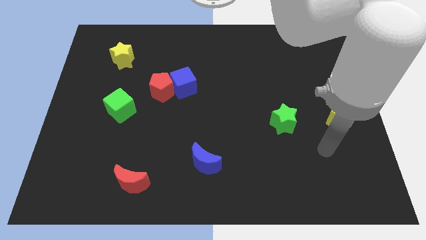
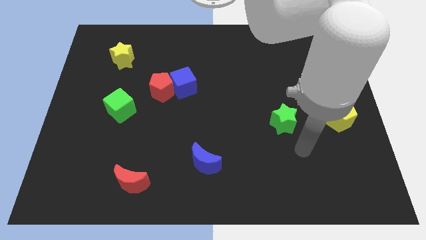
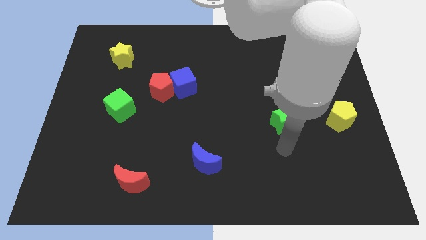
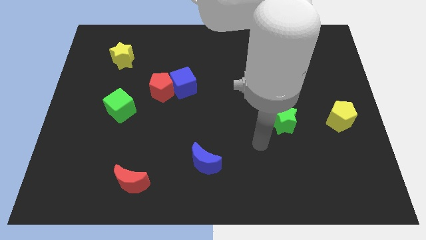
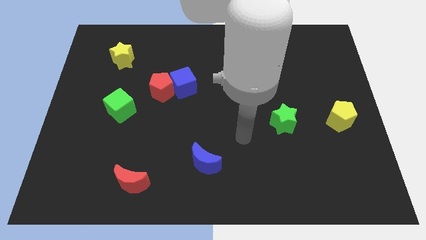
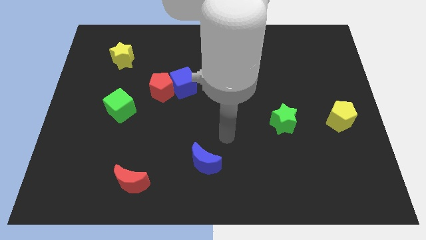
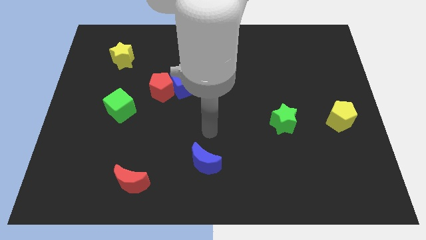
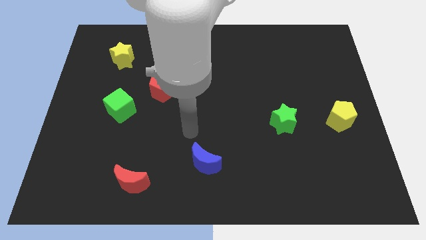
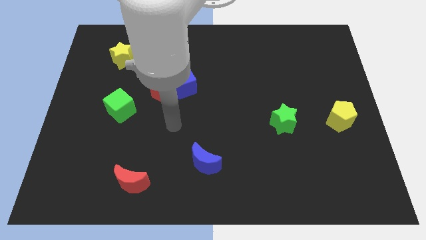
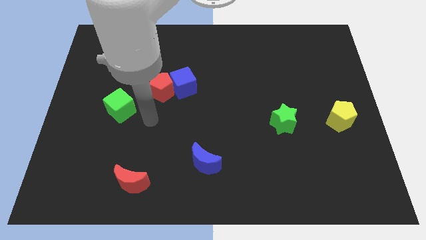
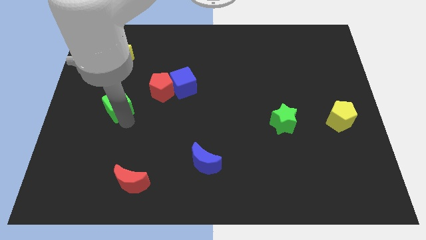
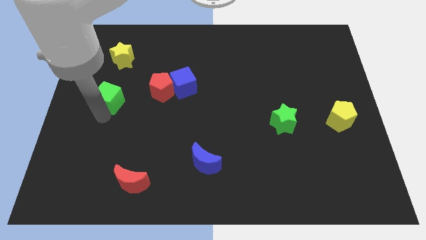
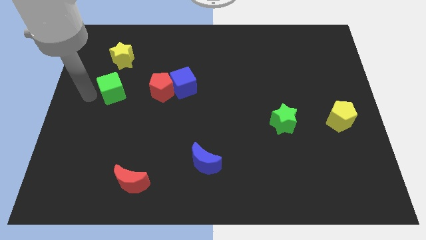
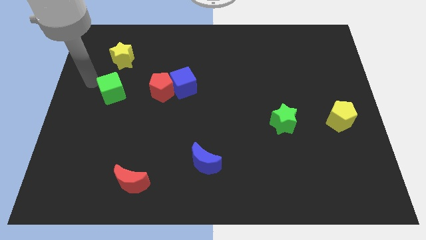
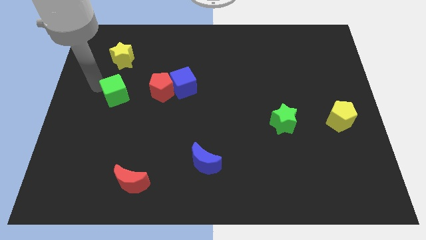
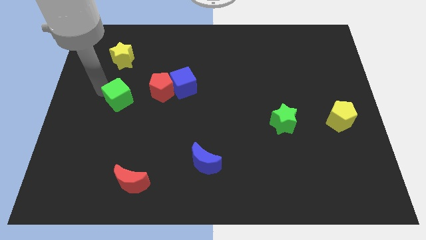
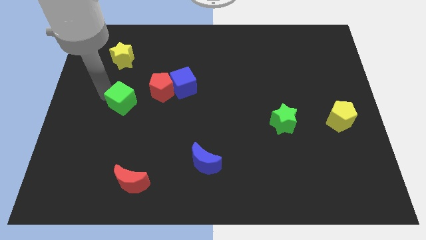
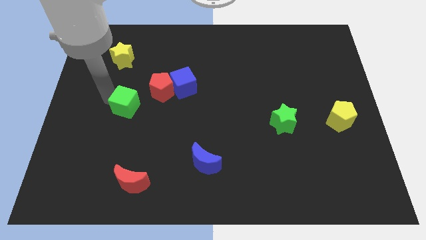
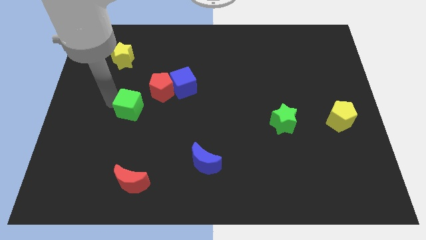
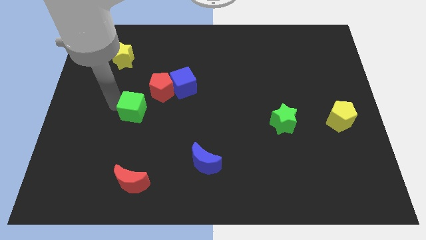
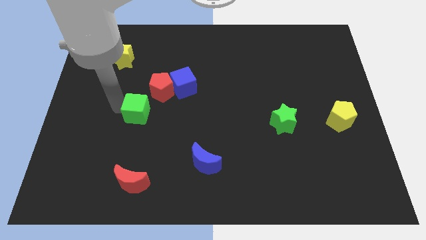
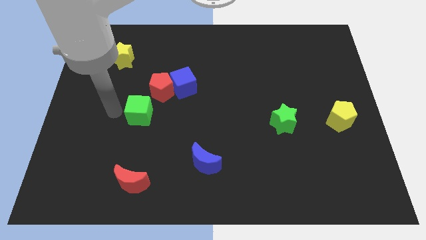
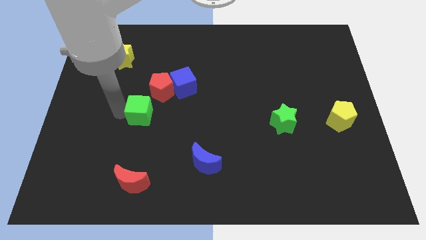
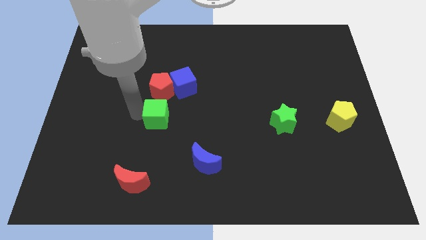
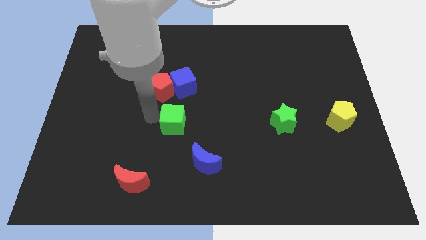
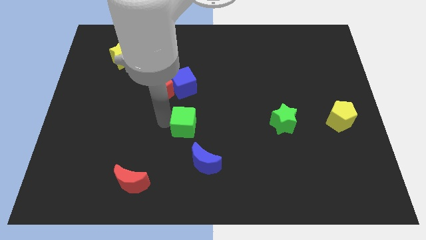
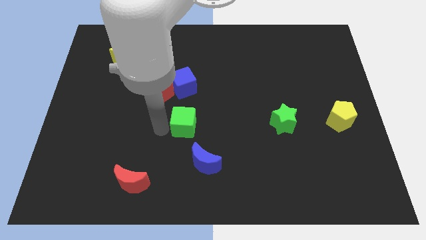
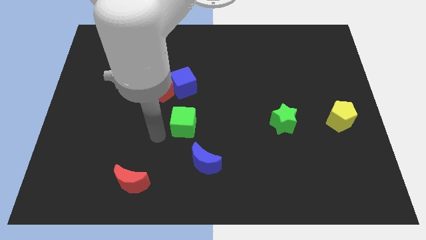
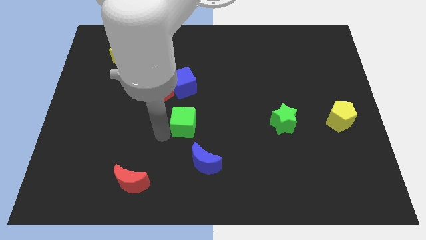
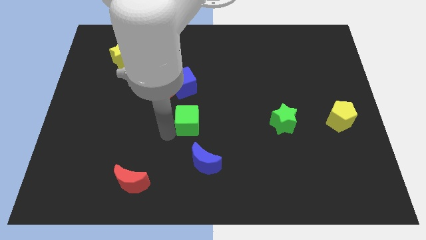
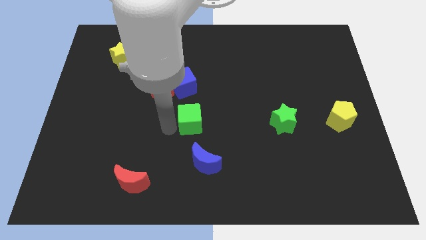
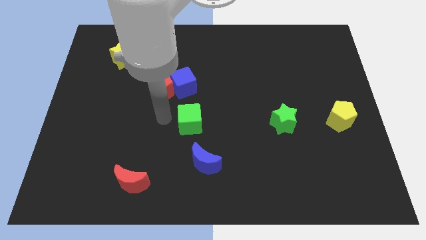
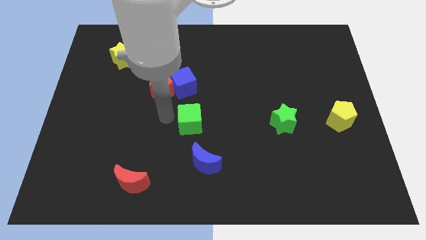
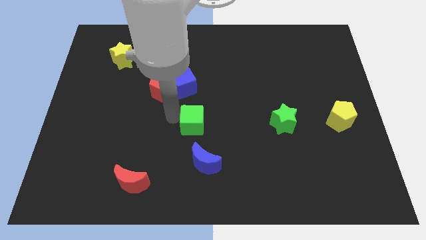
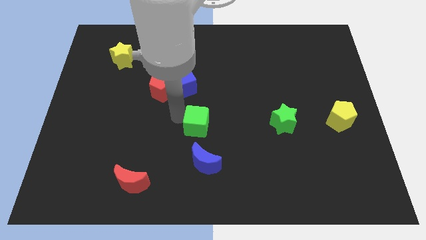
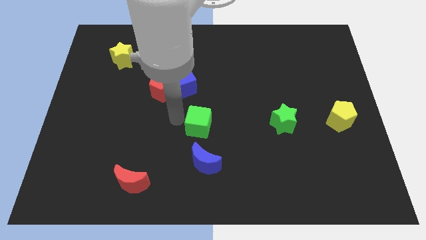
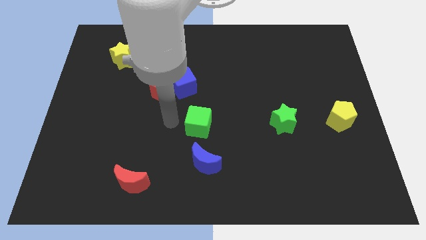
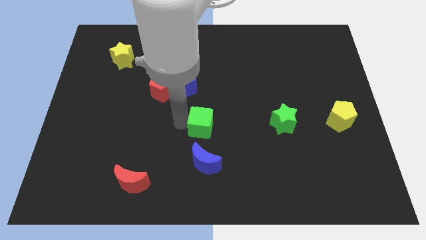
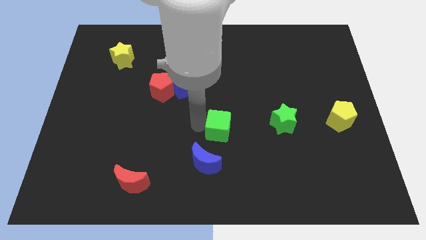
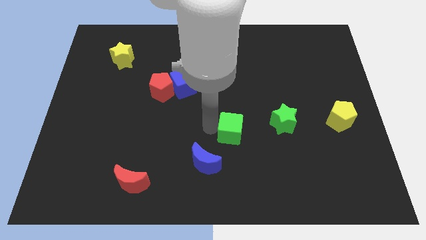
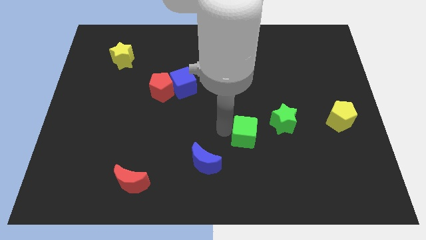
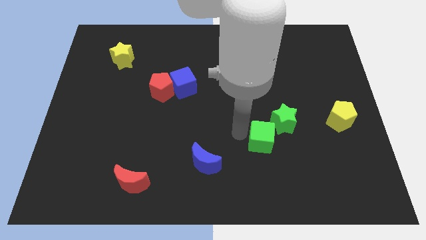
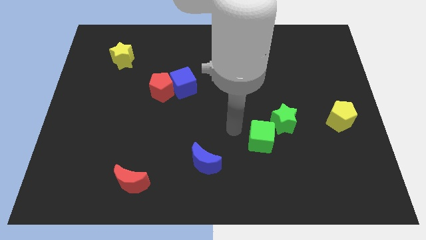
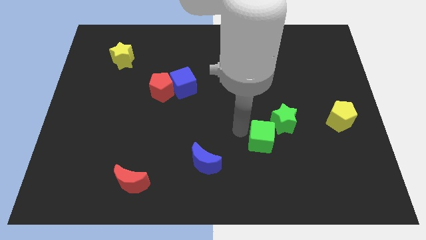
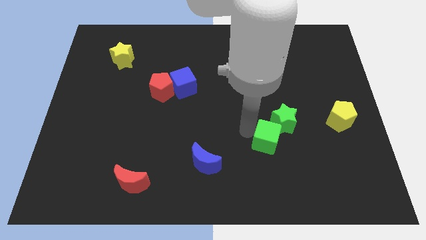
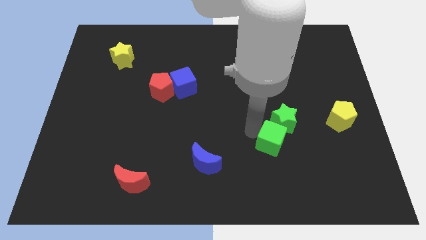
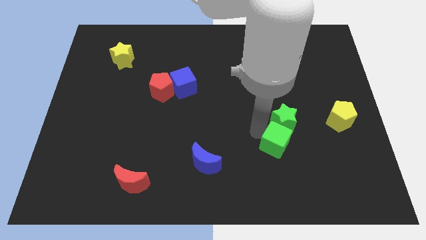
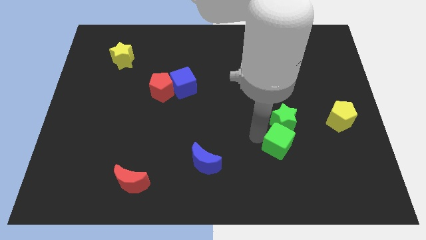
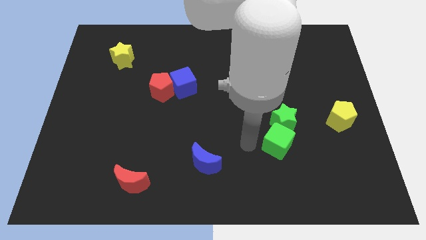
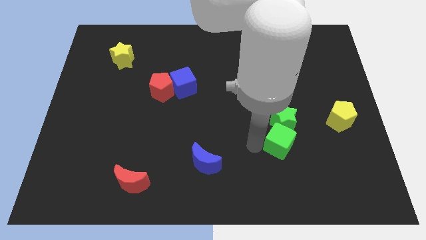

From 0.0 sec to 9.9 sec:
put the green cube to the bottom right side of the green star

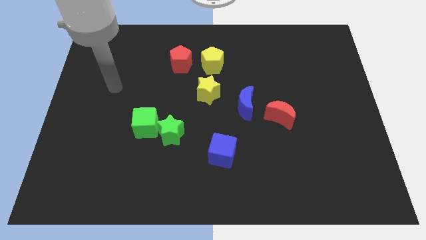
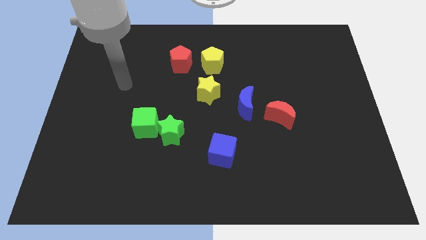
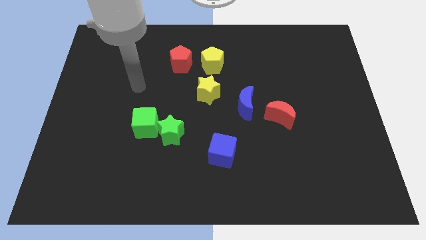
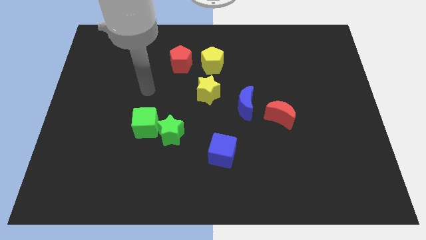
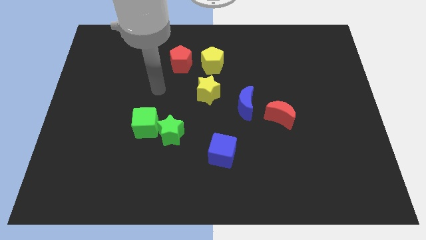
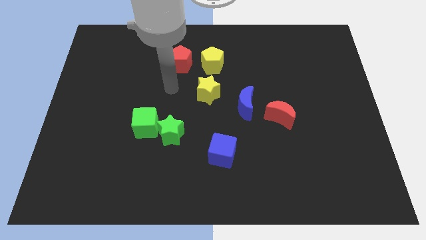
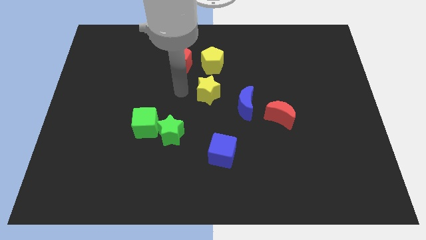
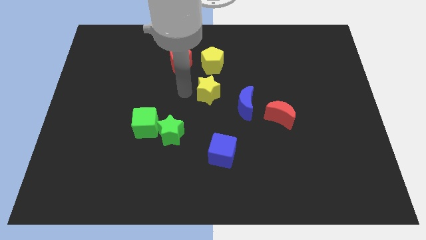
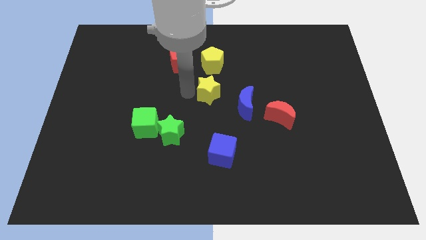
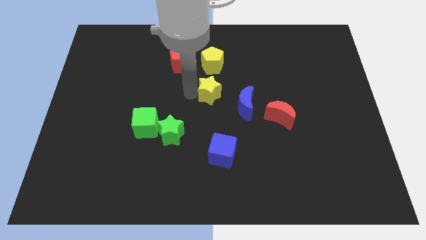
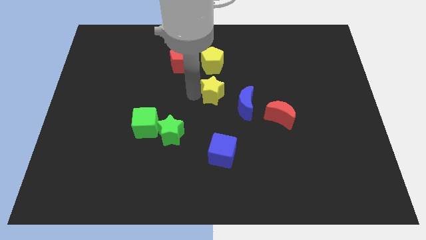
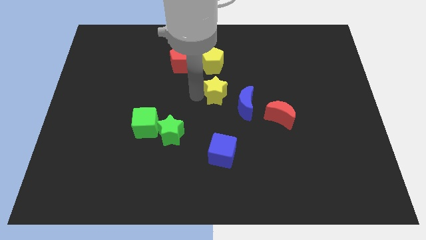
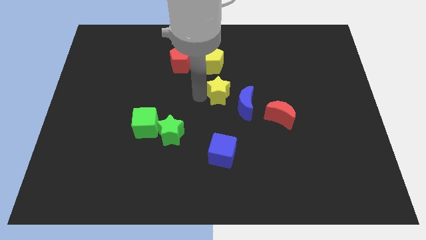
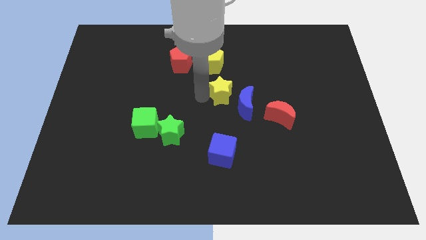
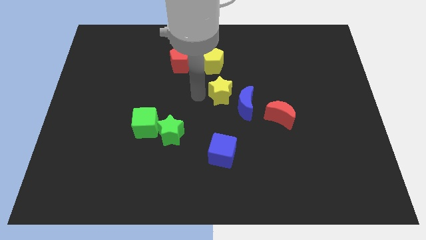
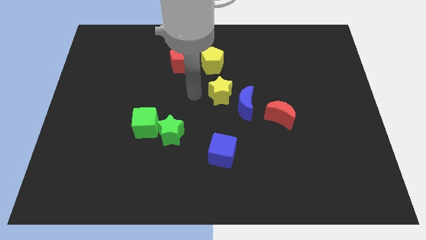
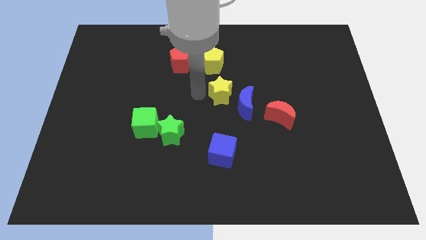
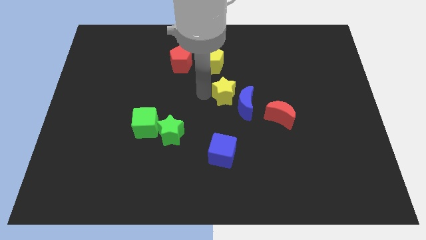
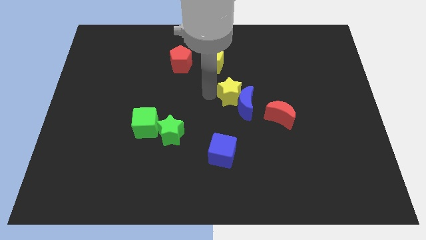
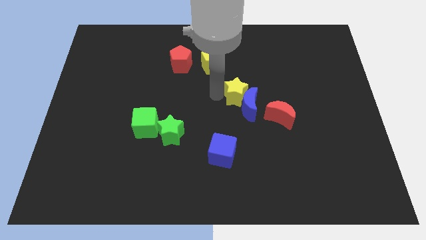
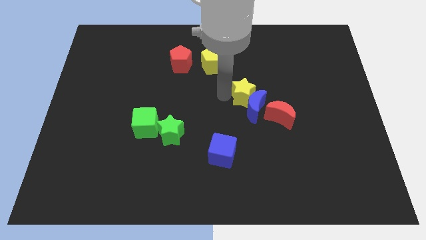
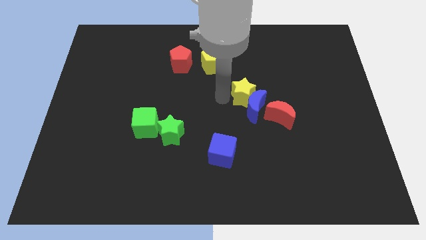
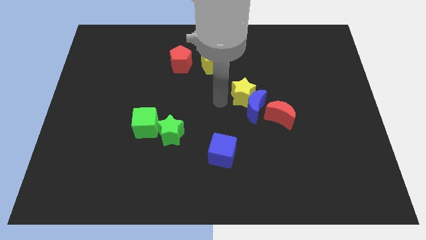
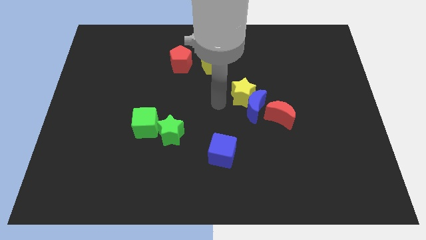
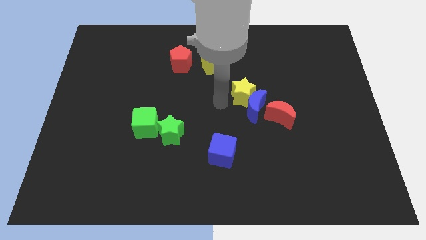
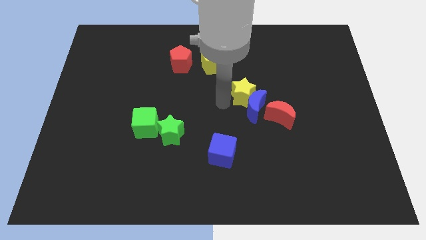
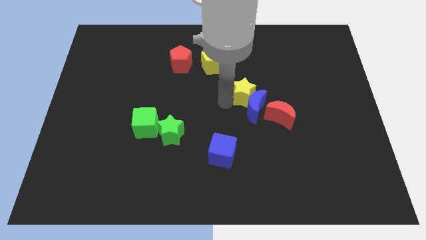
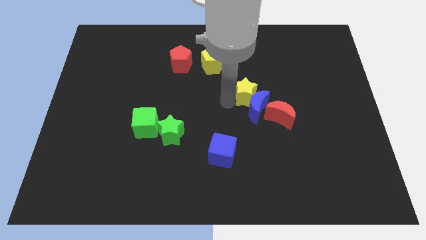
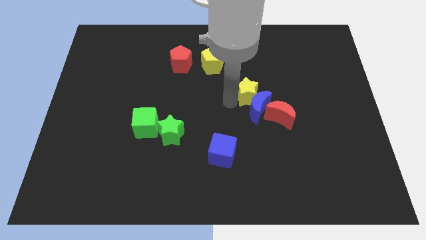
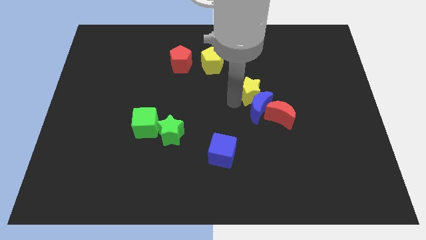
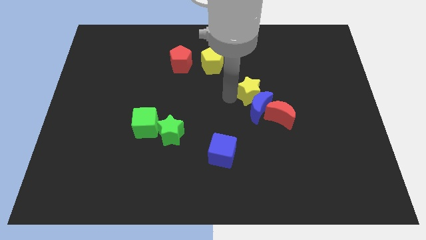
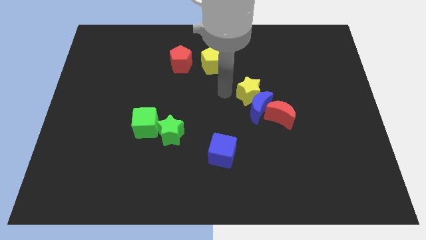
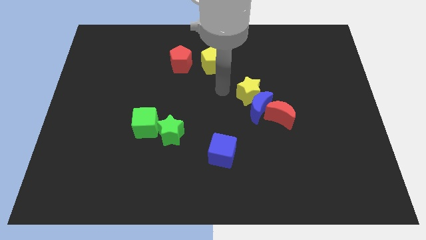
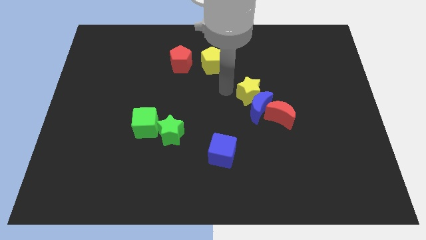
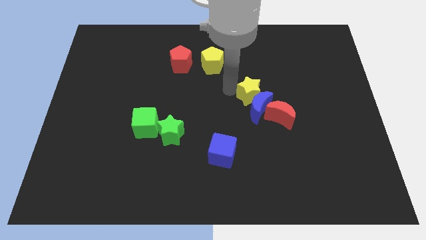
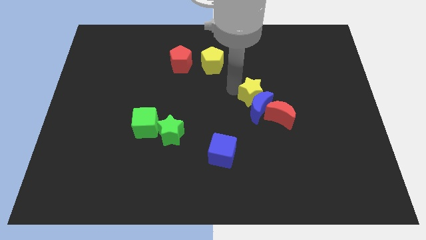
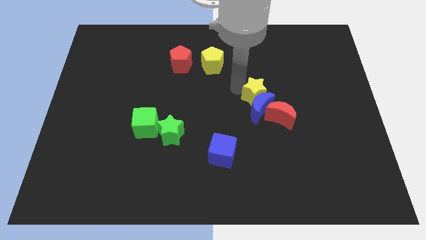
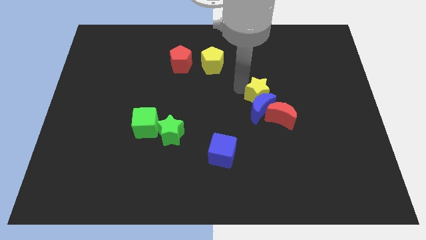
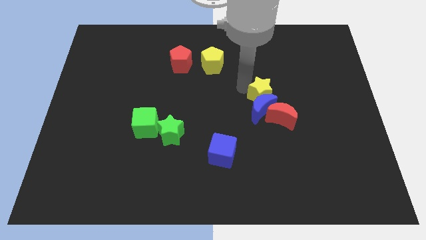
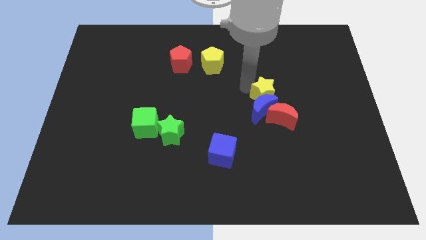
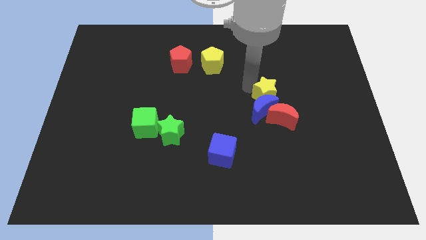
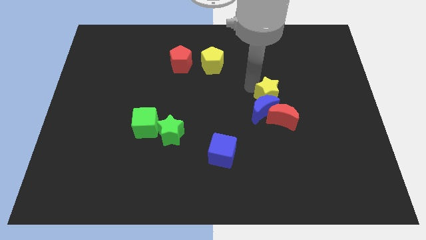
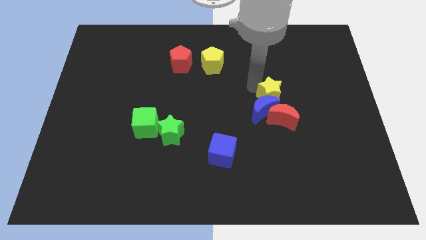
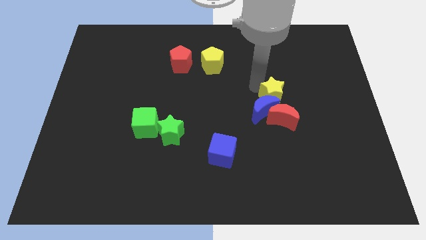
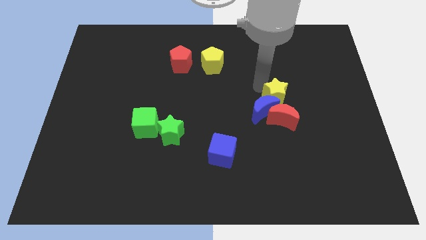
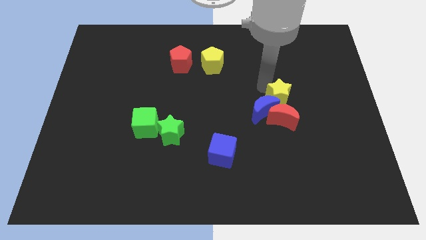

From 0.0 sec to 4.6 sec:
move the yellow star right of the blue moon
